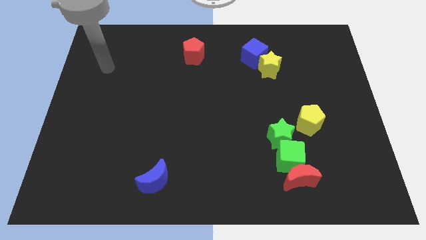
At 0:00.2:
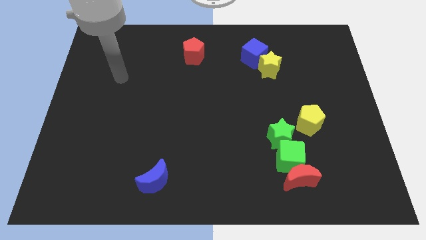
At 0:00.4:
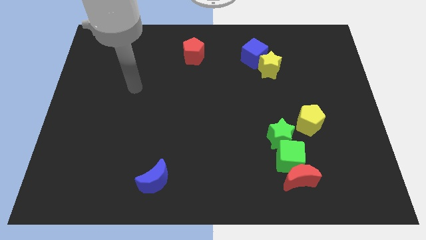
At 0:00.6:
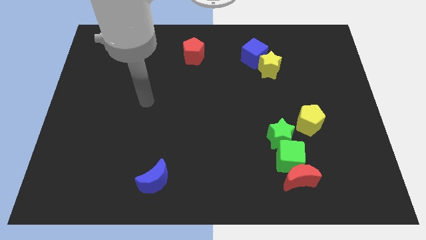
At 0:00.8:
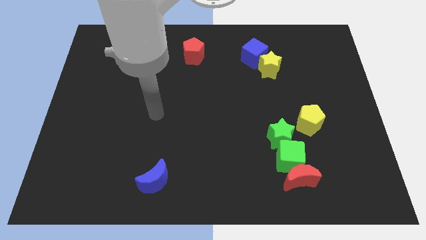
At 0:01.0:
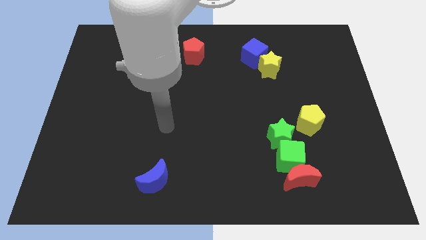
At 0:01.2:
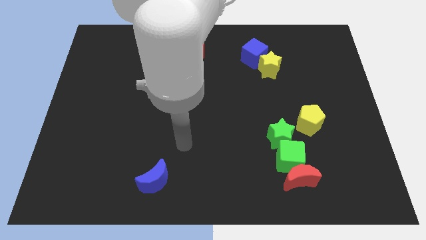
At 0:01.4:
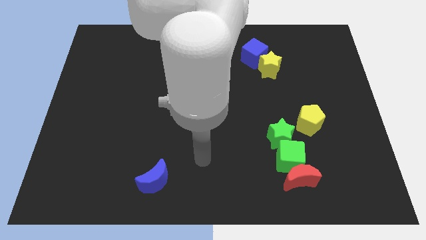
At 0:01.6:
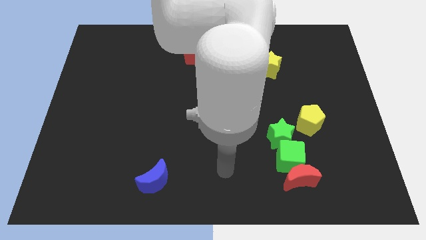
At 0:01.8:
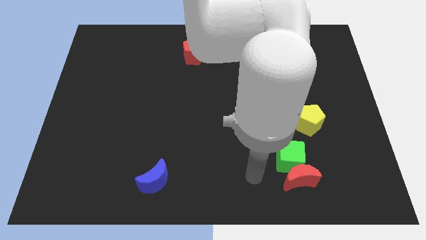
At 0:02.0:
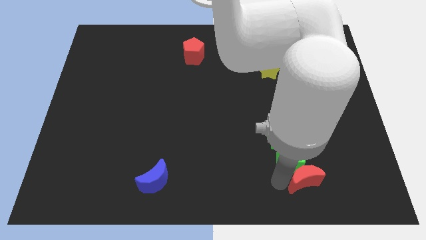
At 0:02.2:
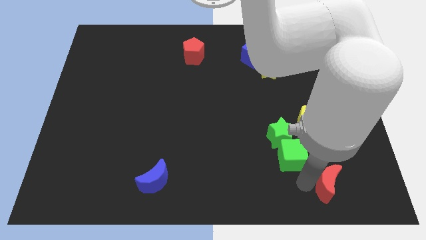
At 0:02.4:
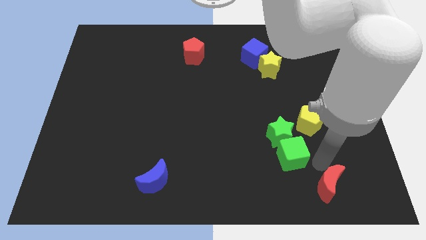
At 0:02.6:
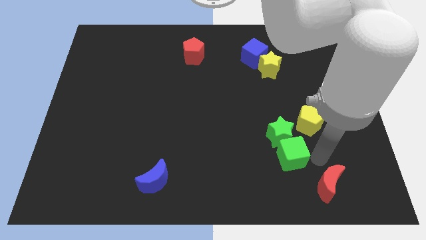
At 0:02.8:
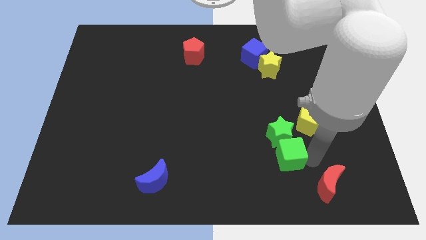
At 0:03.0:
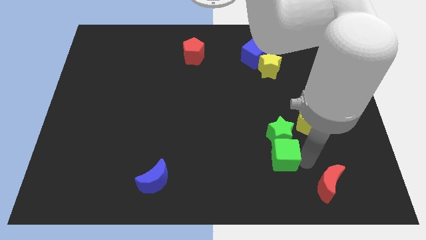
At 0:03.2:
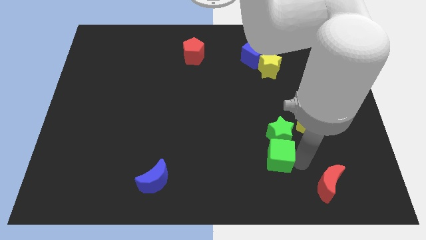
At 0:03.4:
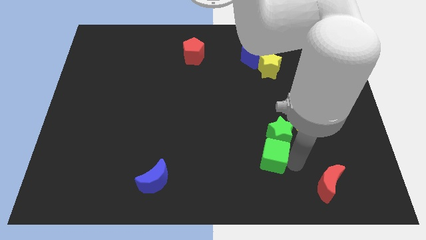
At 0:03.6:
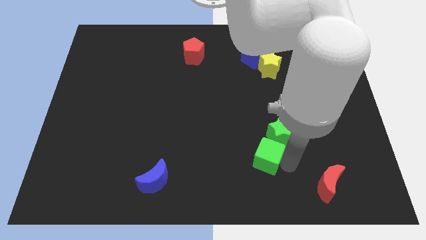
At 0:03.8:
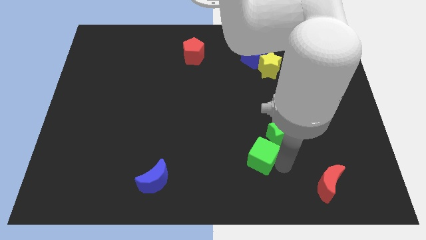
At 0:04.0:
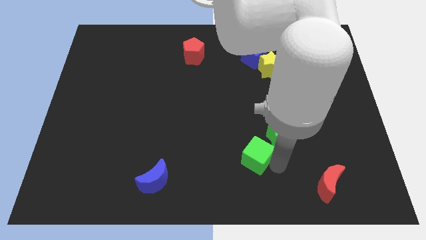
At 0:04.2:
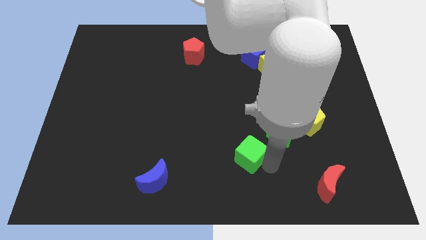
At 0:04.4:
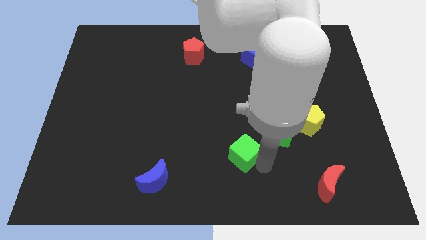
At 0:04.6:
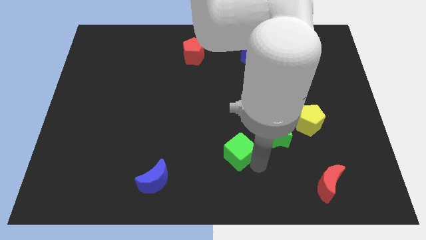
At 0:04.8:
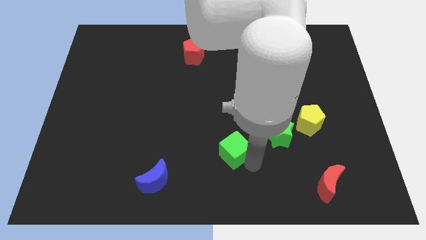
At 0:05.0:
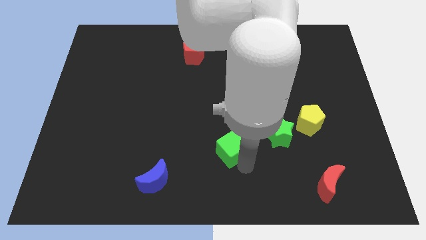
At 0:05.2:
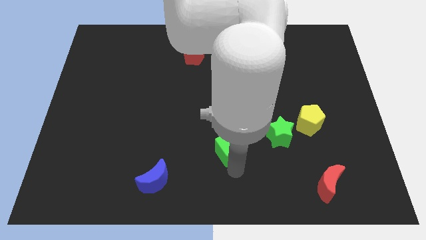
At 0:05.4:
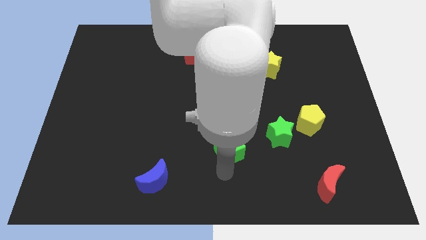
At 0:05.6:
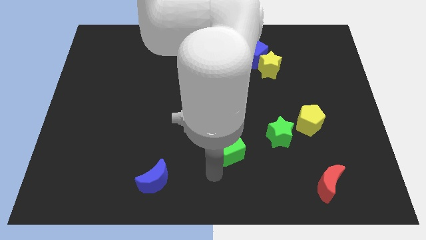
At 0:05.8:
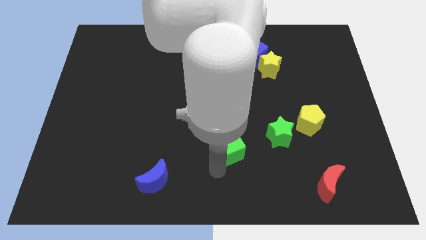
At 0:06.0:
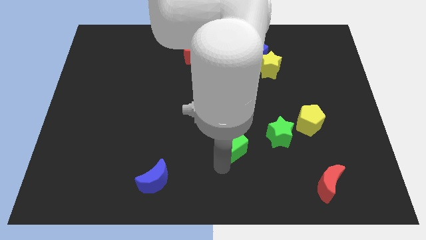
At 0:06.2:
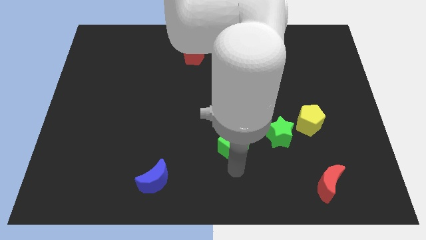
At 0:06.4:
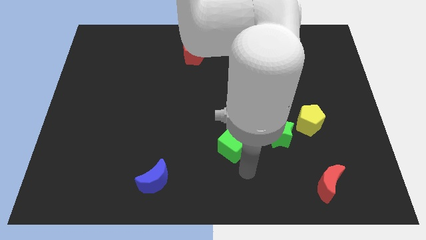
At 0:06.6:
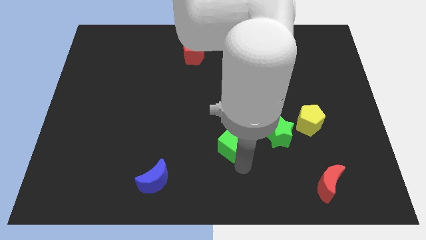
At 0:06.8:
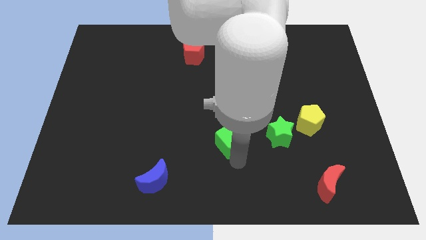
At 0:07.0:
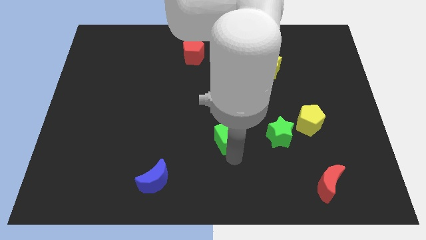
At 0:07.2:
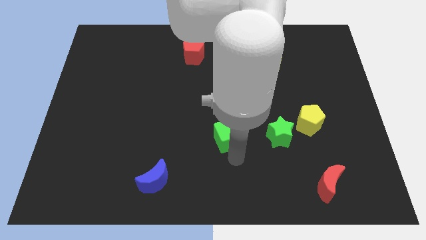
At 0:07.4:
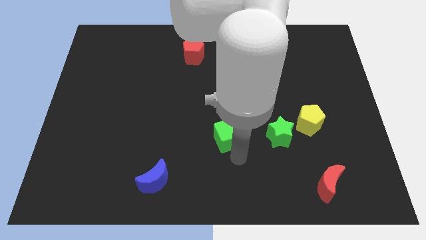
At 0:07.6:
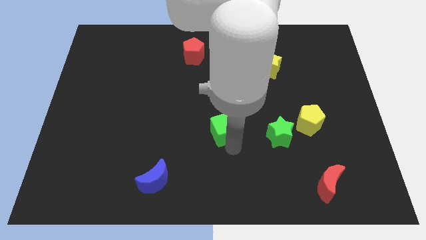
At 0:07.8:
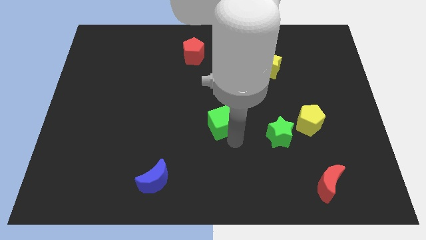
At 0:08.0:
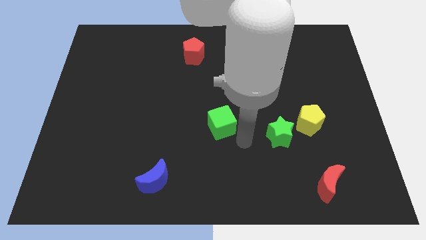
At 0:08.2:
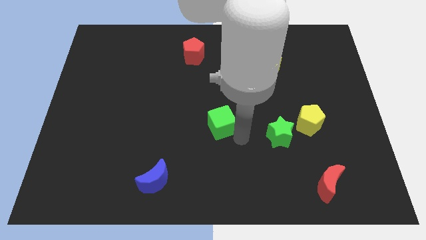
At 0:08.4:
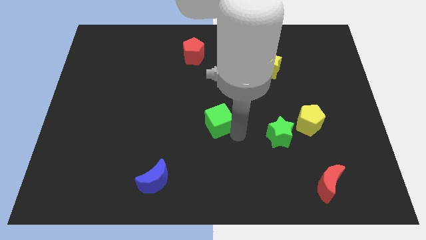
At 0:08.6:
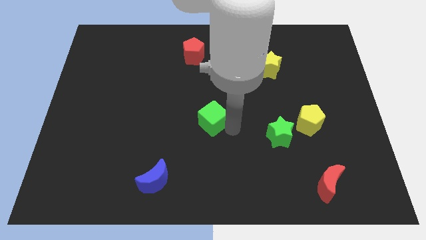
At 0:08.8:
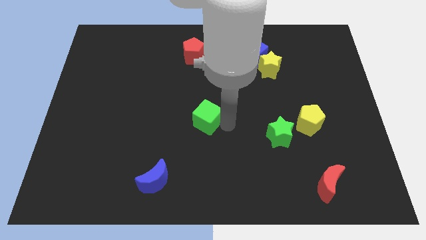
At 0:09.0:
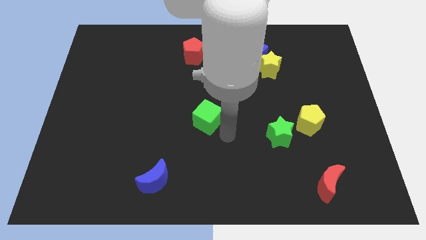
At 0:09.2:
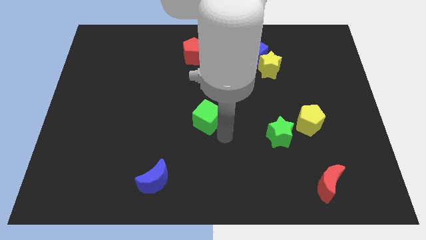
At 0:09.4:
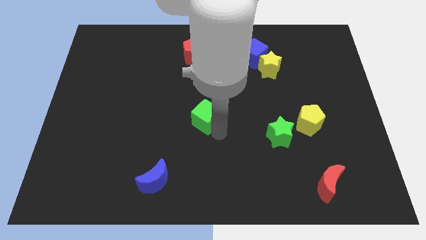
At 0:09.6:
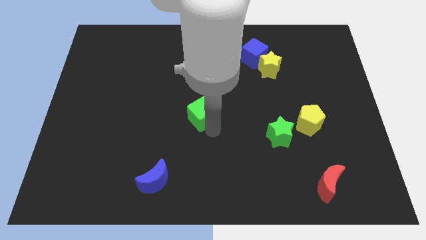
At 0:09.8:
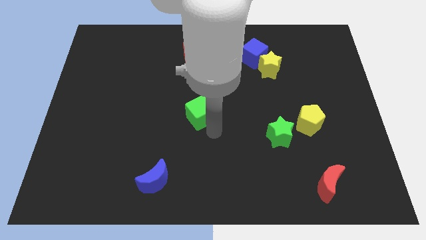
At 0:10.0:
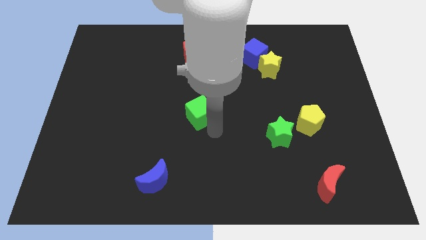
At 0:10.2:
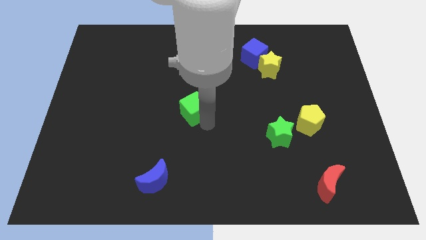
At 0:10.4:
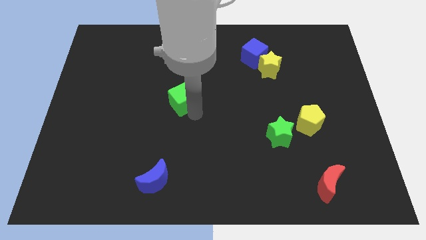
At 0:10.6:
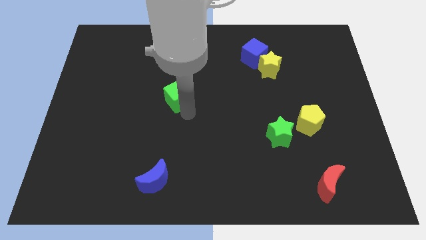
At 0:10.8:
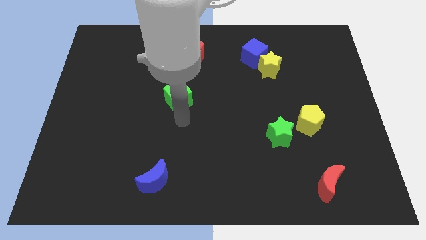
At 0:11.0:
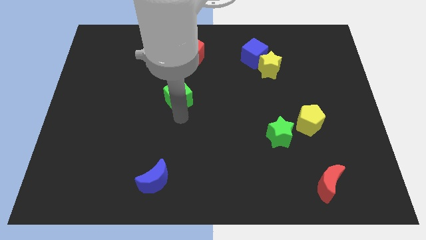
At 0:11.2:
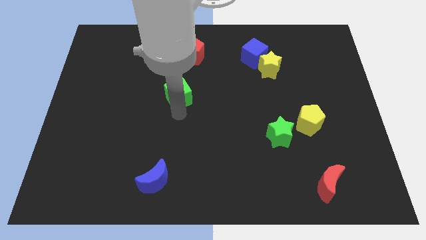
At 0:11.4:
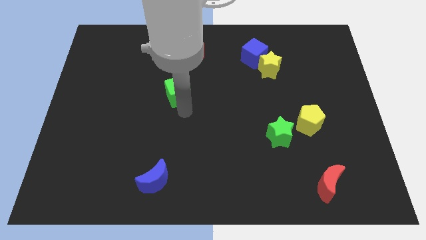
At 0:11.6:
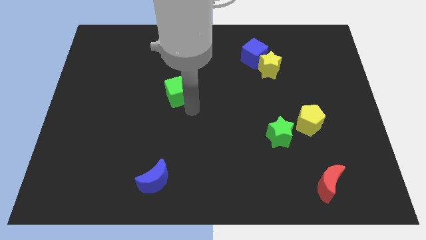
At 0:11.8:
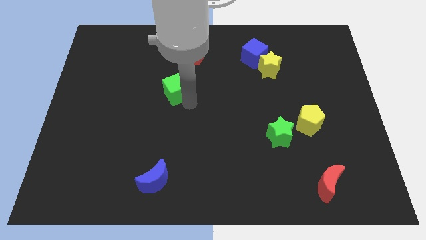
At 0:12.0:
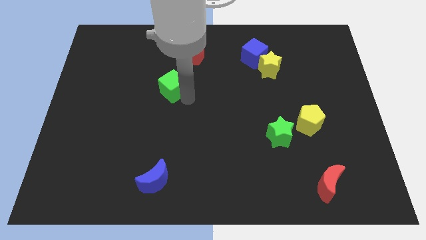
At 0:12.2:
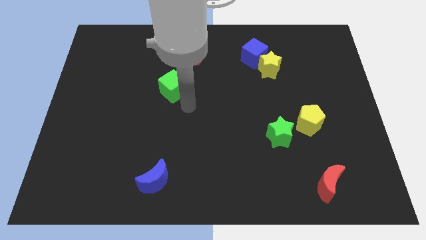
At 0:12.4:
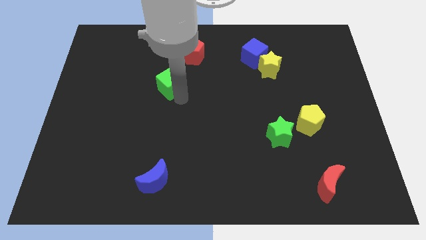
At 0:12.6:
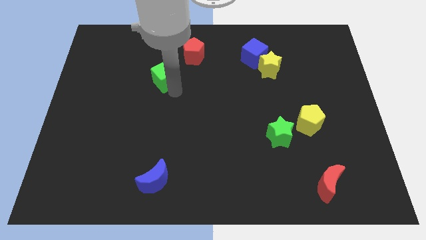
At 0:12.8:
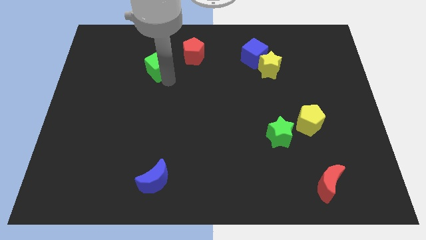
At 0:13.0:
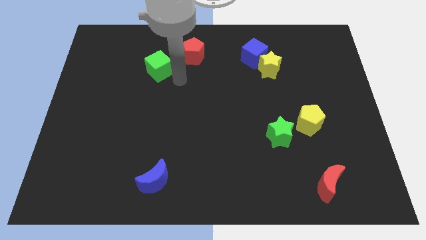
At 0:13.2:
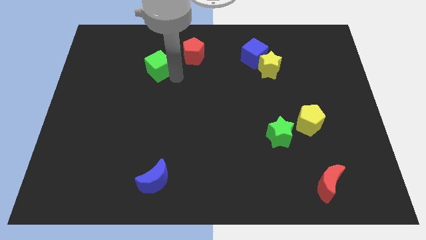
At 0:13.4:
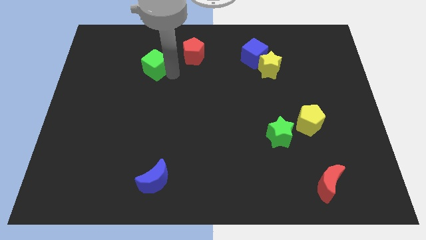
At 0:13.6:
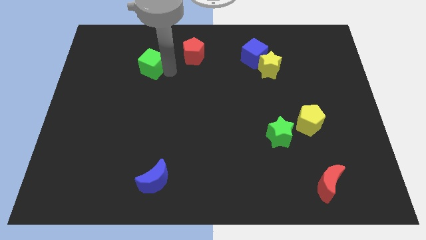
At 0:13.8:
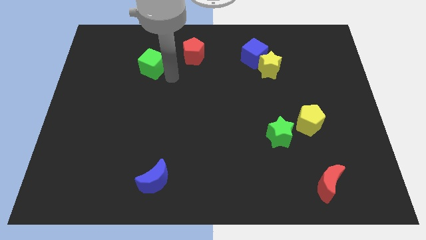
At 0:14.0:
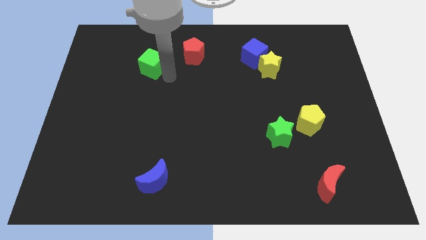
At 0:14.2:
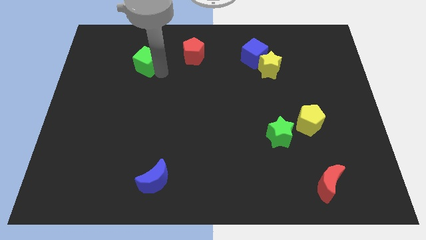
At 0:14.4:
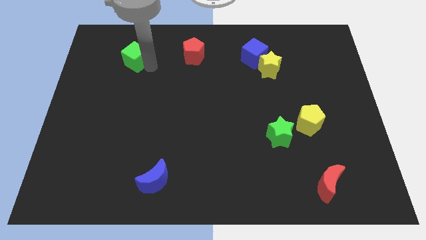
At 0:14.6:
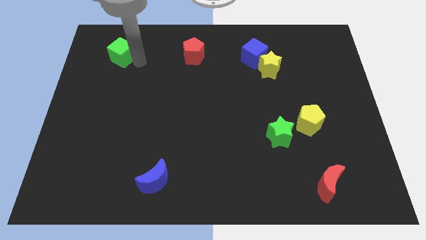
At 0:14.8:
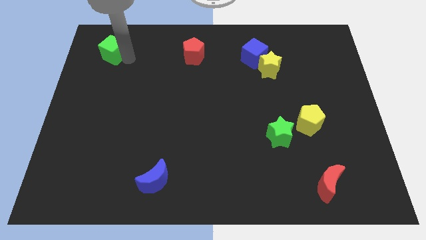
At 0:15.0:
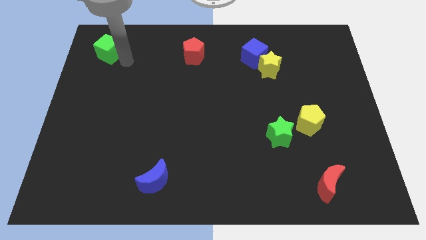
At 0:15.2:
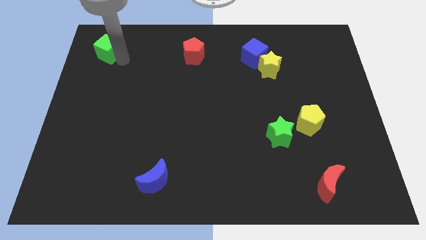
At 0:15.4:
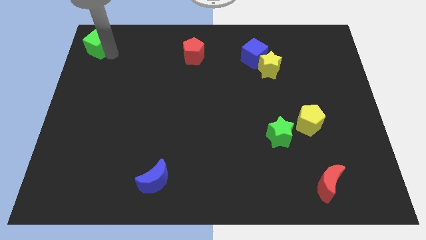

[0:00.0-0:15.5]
push the green cube to the top left corner
